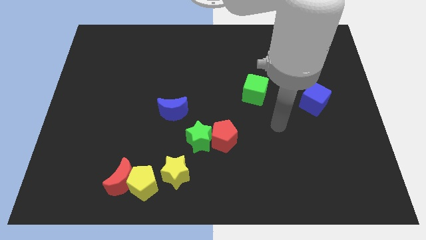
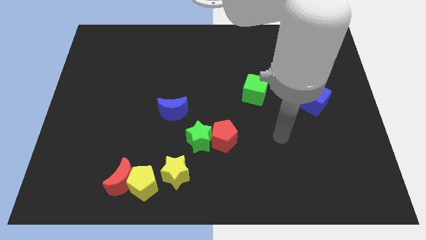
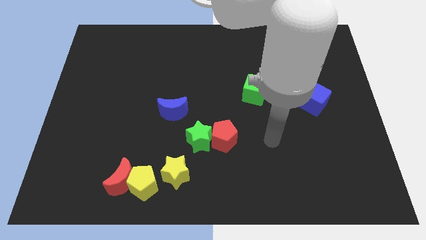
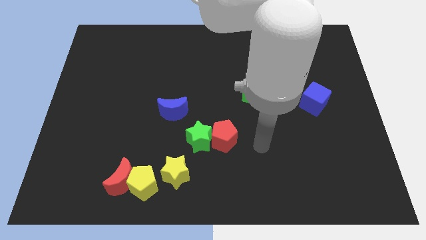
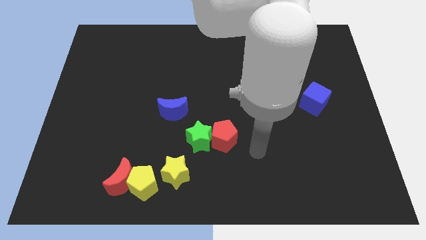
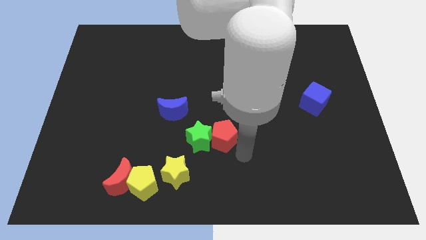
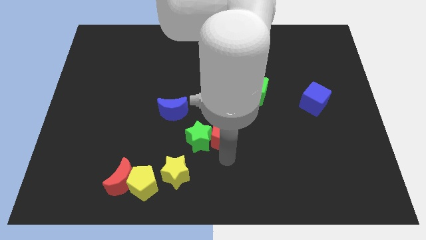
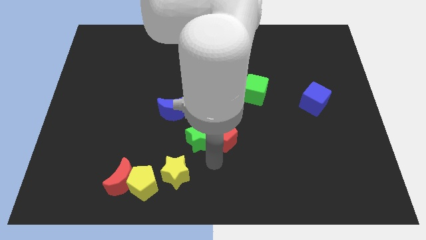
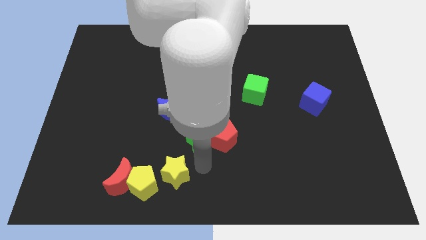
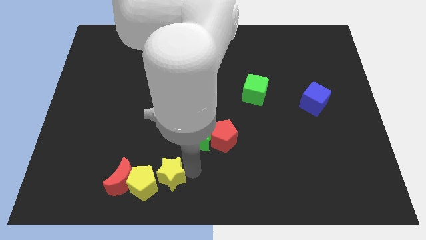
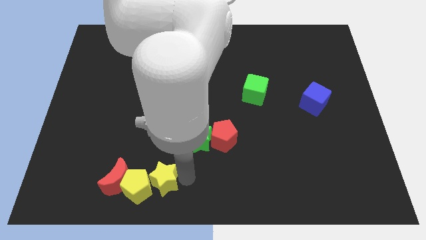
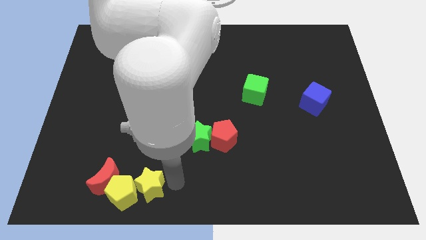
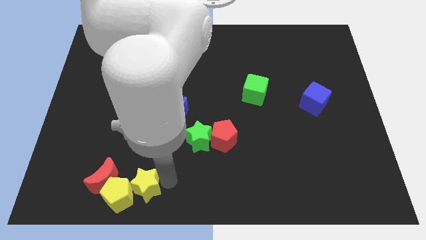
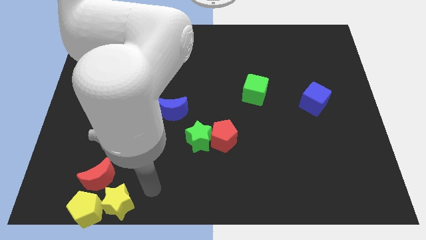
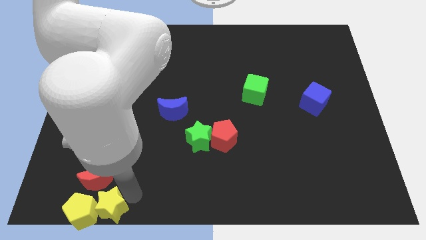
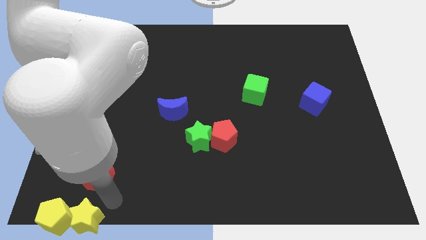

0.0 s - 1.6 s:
pull the red moon apart from the yellow pentagon

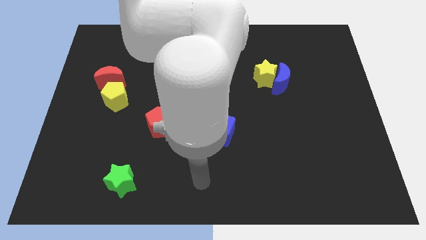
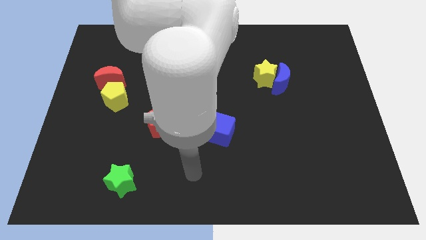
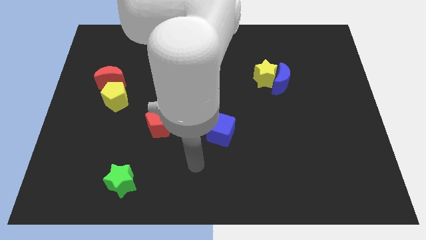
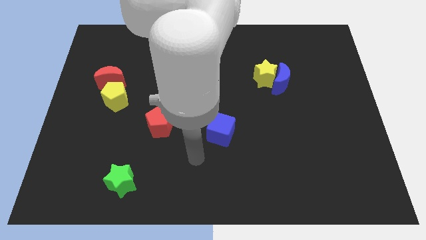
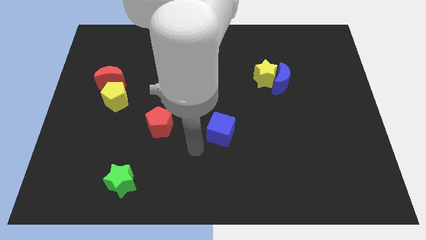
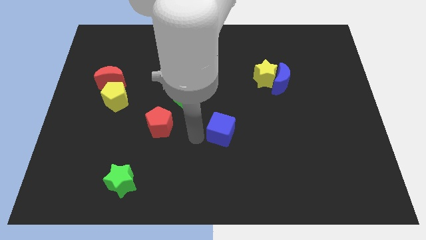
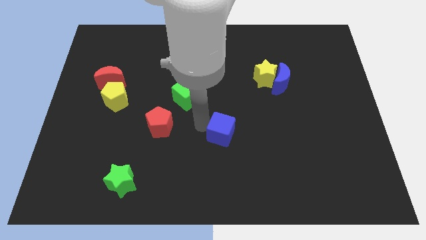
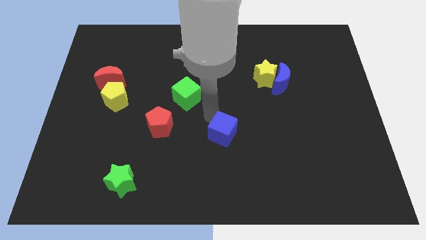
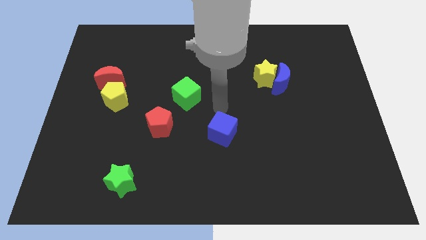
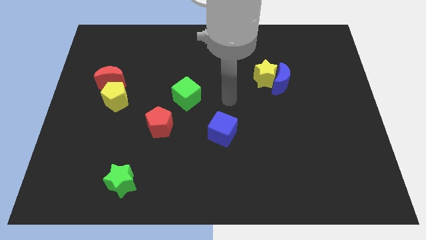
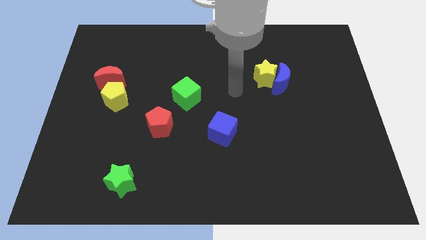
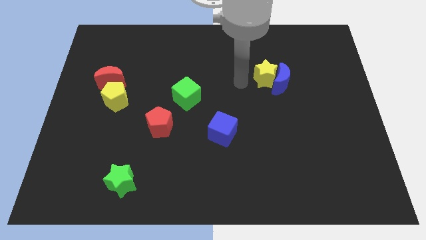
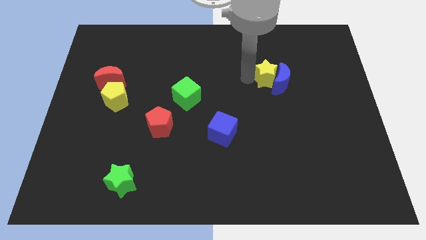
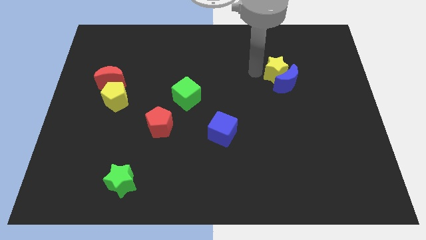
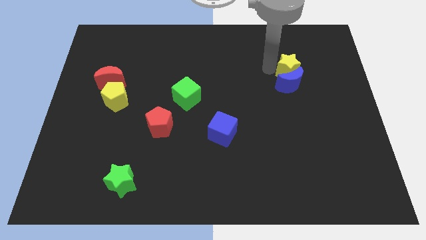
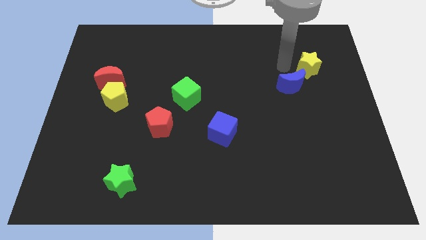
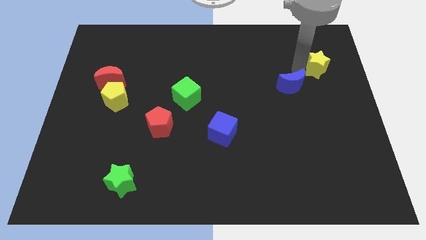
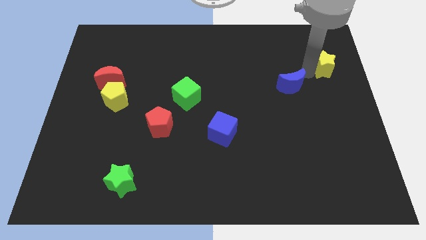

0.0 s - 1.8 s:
move the blue moon away from the yellow star

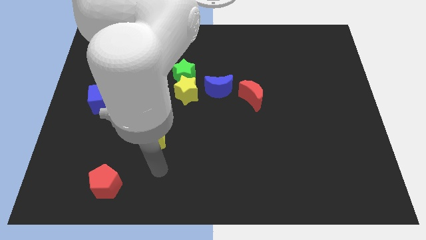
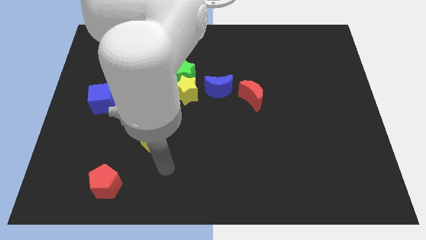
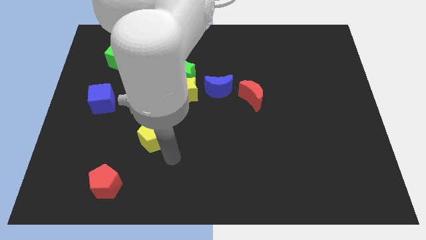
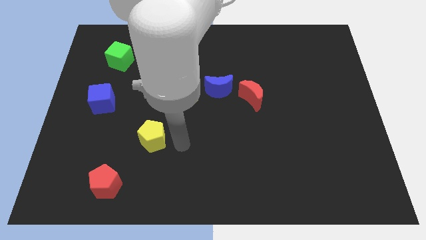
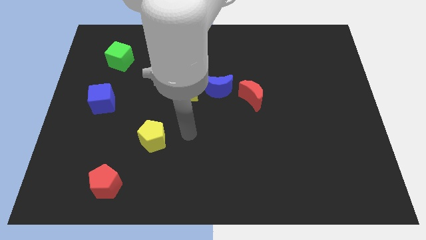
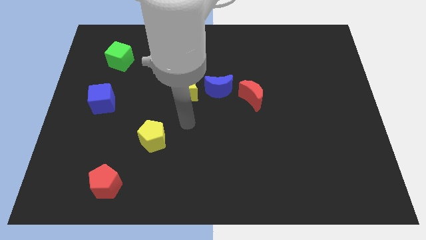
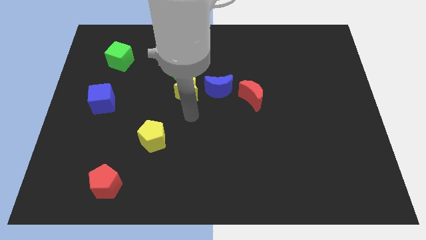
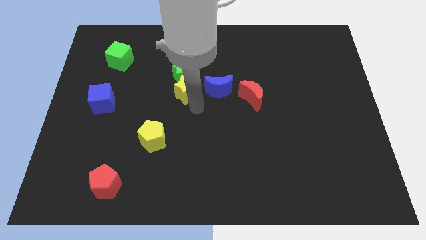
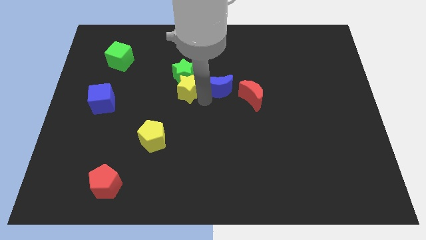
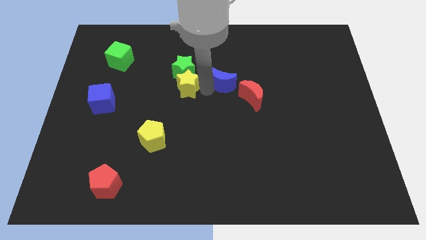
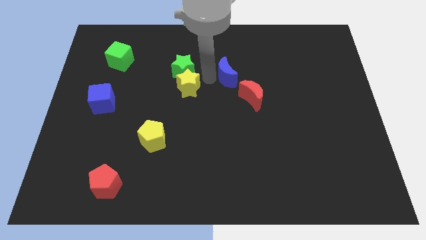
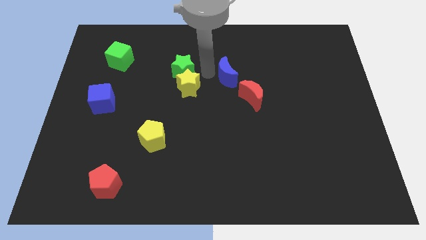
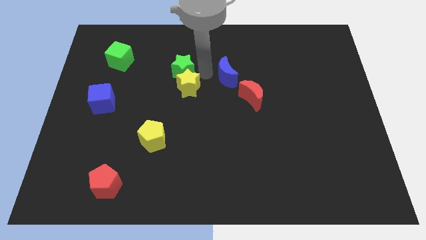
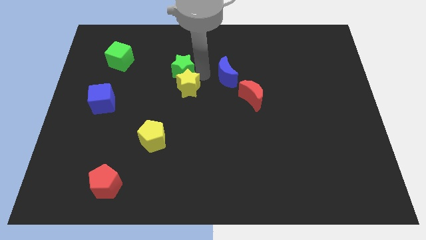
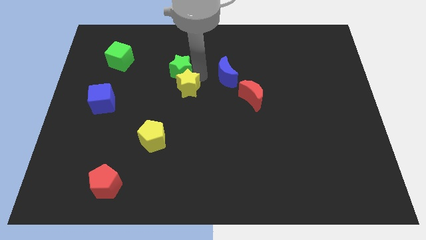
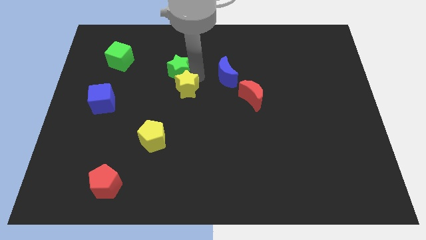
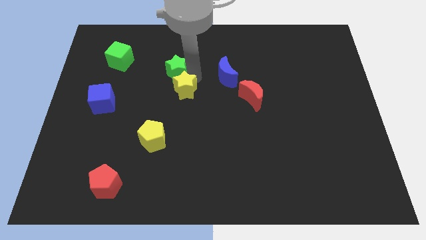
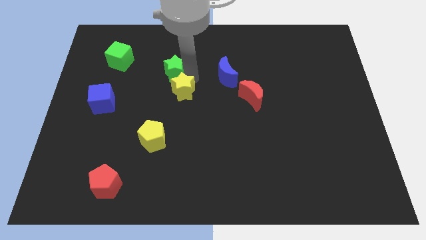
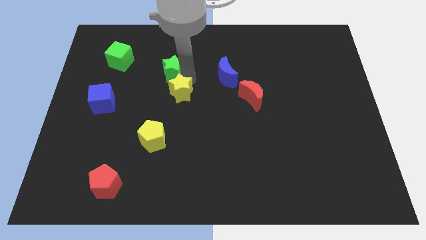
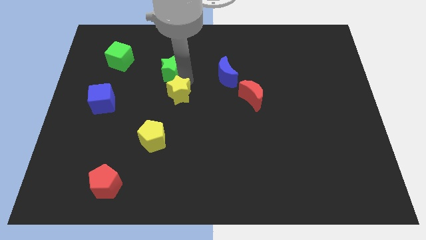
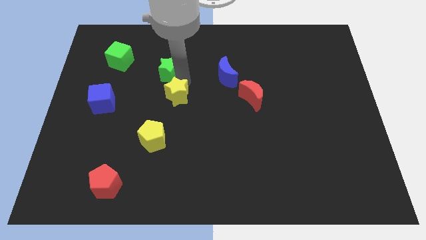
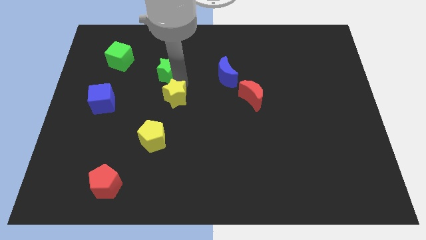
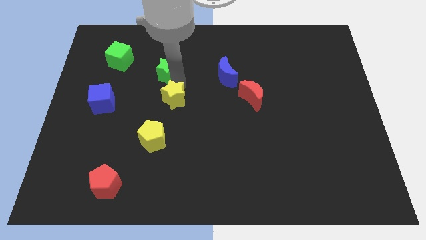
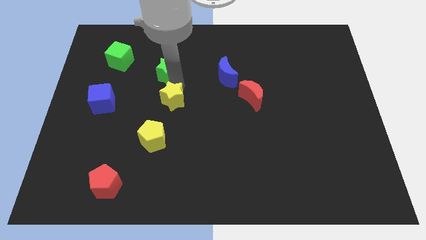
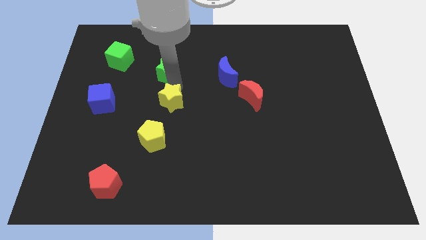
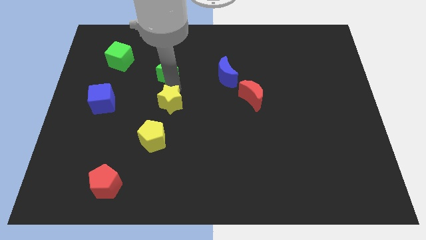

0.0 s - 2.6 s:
pull the yellow star apart from the green star and blue moon

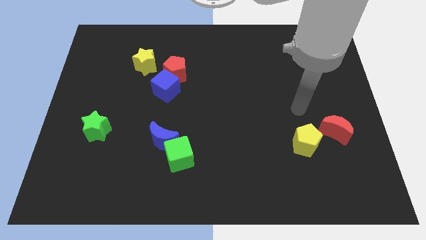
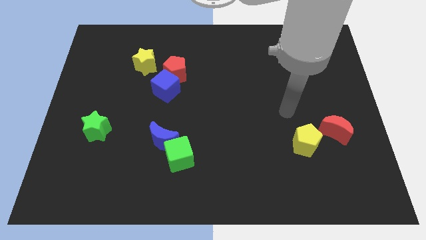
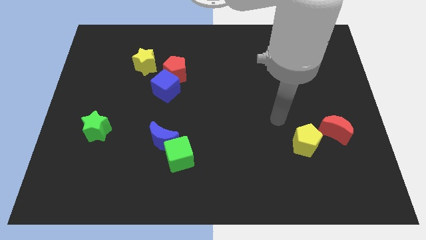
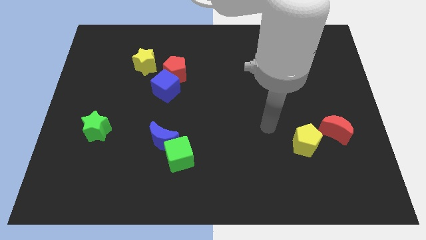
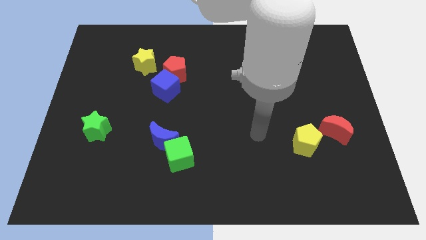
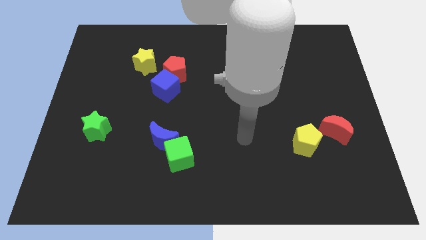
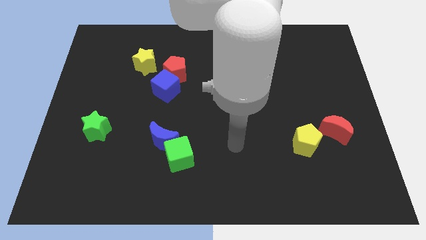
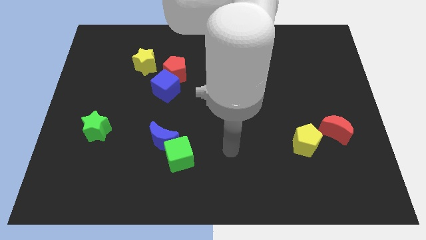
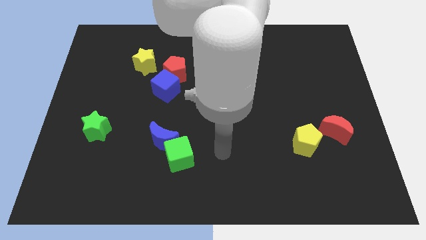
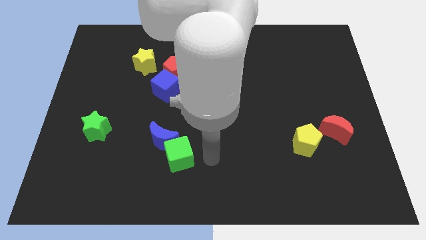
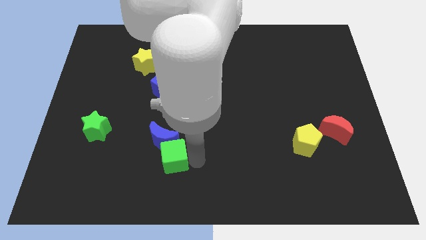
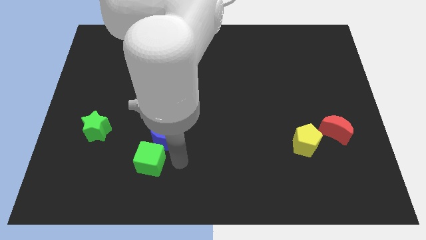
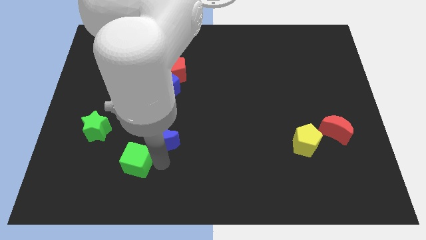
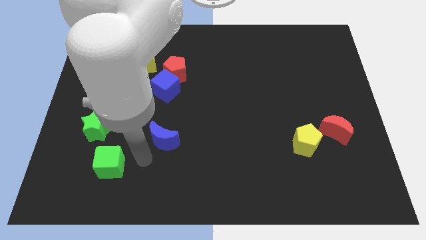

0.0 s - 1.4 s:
pull the blue moon apart from the green cube

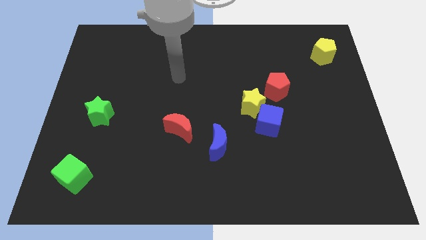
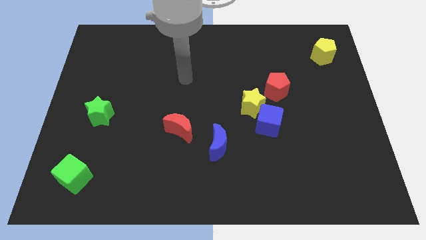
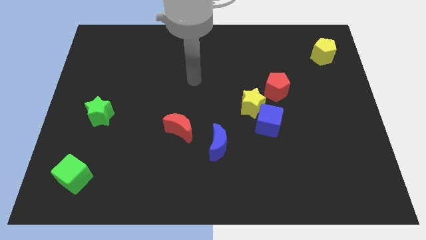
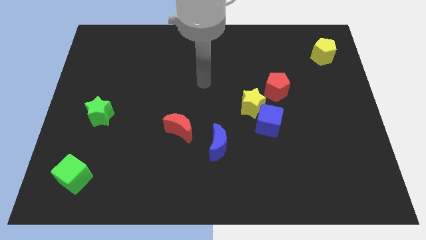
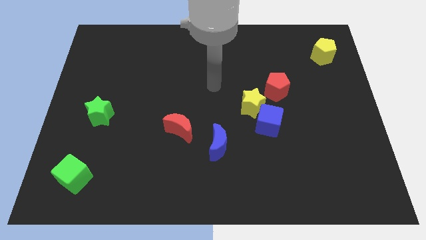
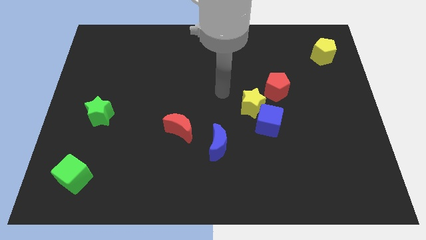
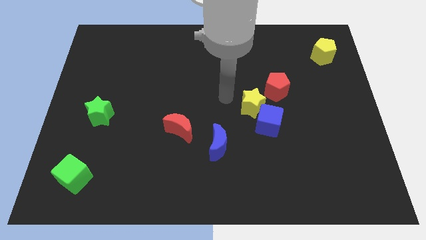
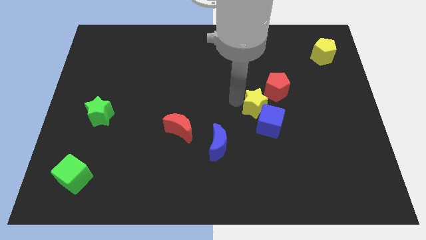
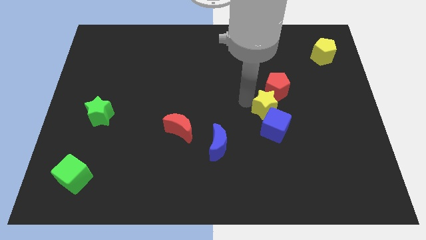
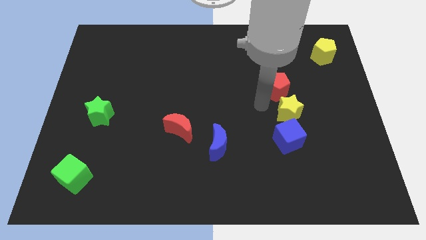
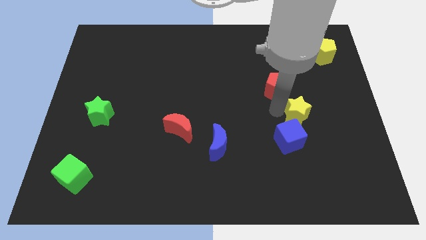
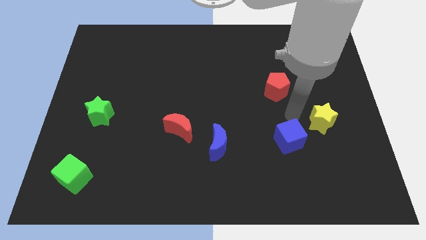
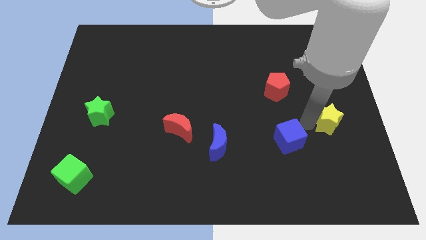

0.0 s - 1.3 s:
move the blue cube away from the yellow star

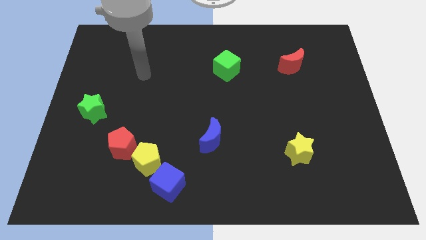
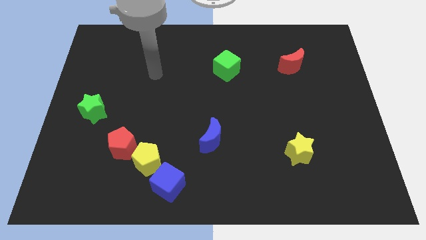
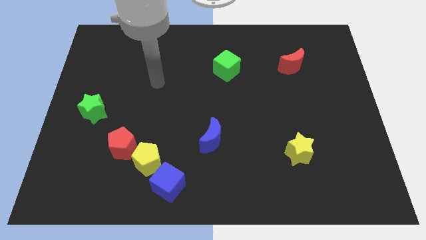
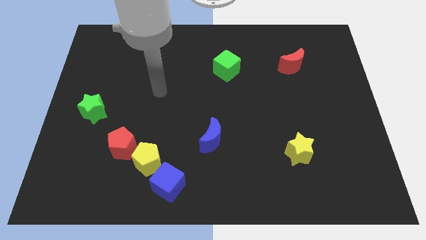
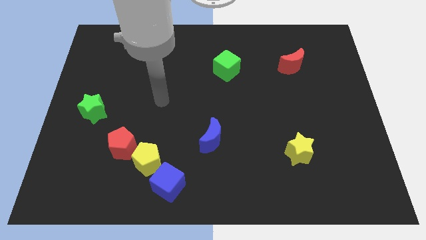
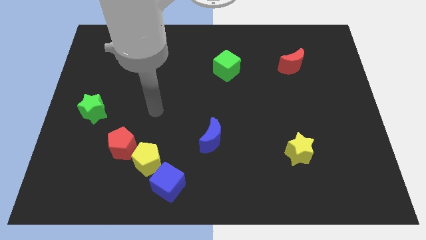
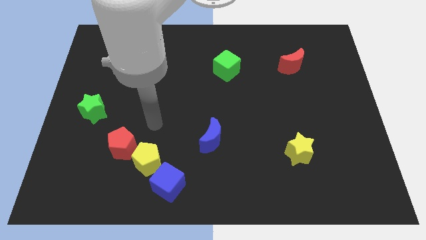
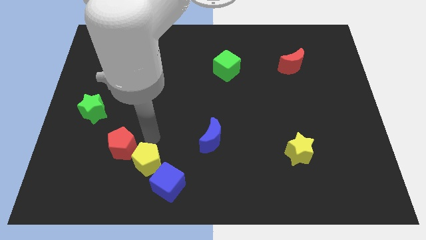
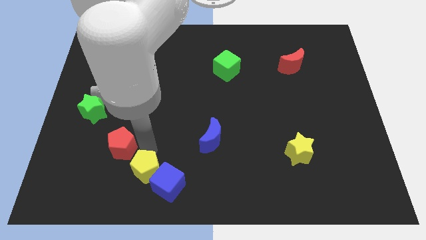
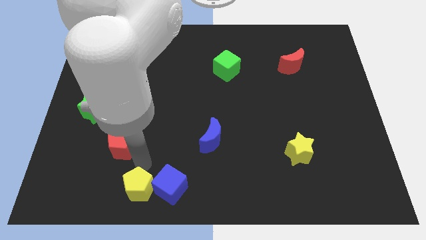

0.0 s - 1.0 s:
separate the red pentagon from the yellow pentagon
